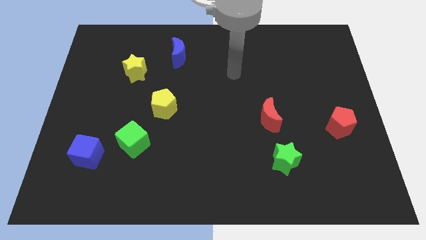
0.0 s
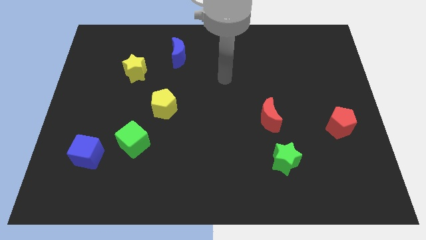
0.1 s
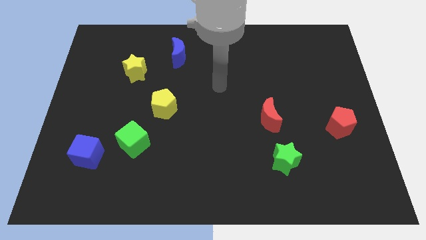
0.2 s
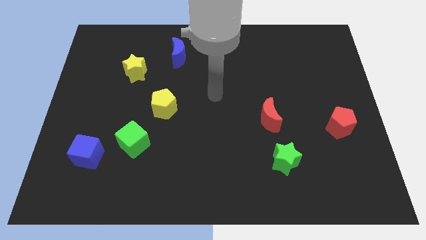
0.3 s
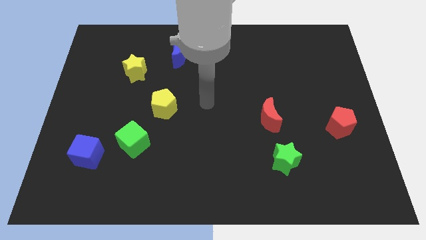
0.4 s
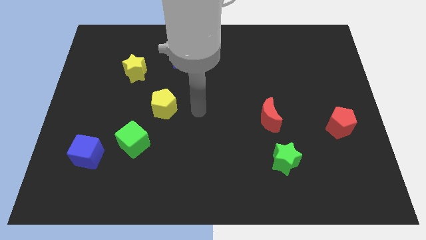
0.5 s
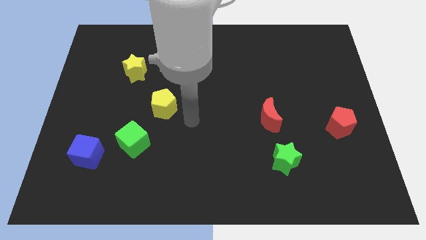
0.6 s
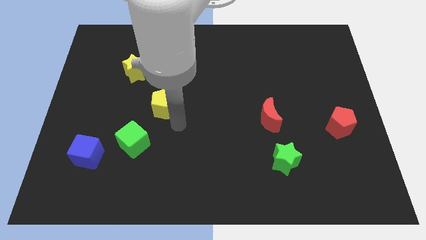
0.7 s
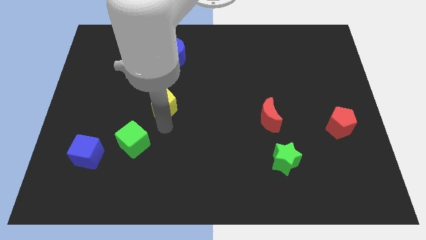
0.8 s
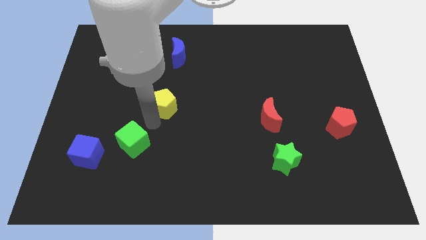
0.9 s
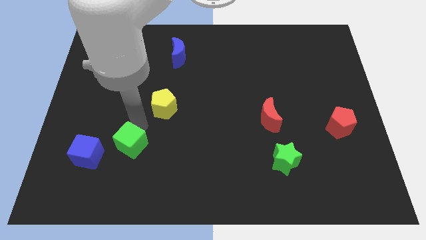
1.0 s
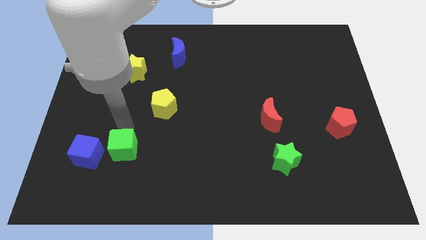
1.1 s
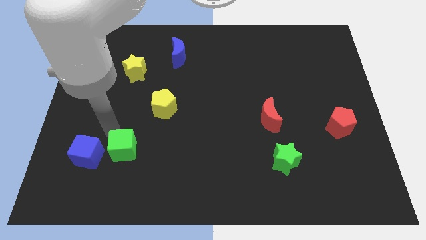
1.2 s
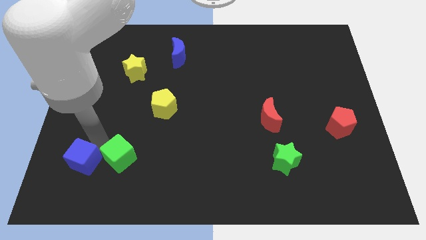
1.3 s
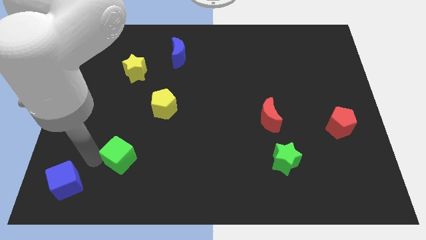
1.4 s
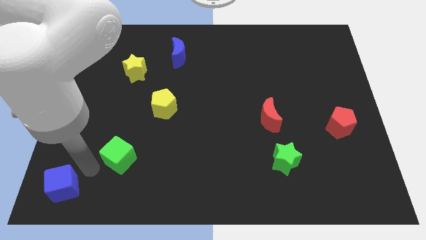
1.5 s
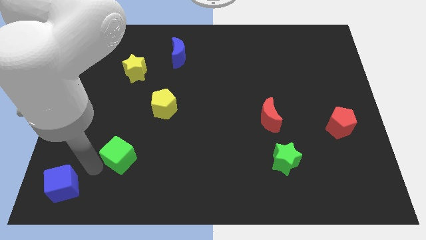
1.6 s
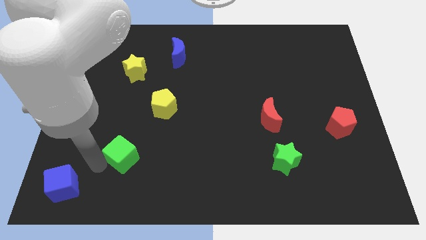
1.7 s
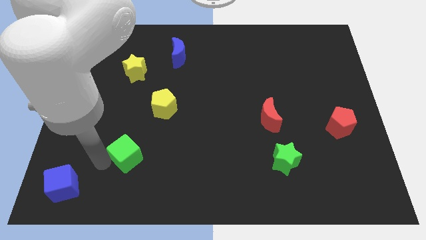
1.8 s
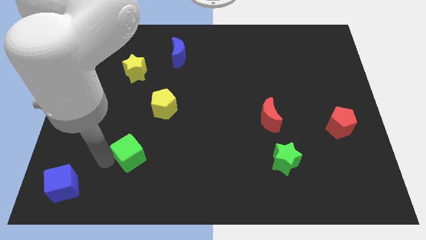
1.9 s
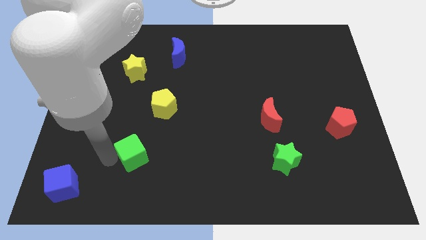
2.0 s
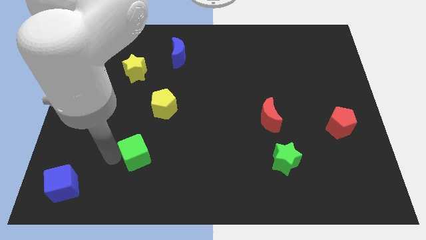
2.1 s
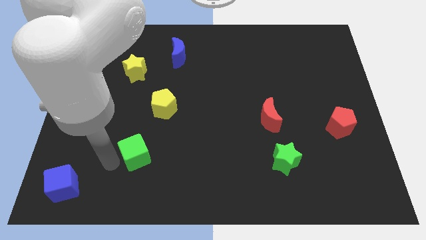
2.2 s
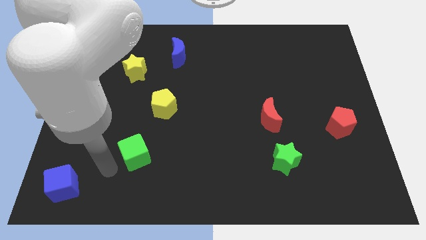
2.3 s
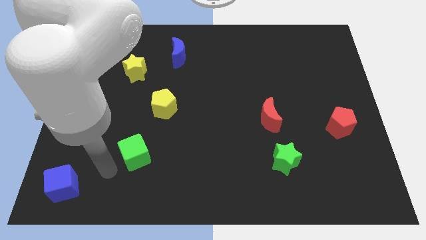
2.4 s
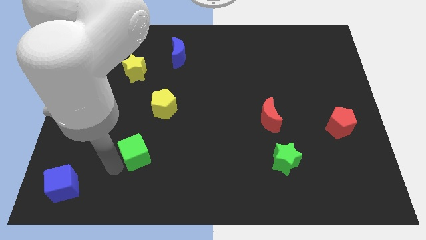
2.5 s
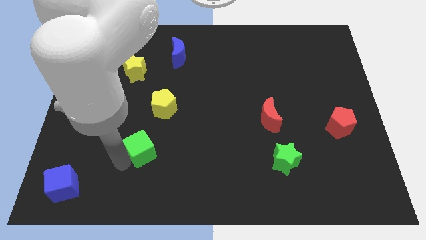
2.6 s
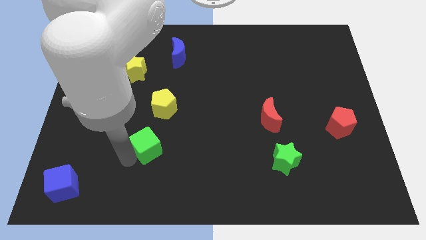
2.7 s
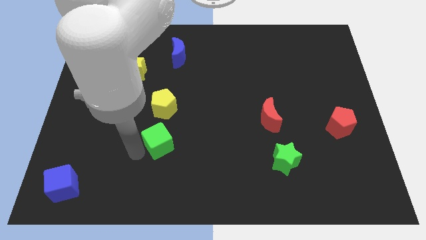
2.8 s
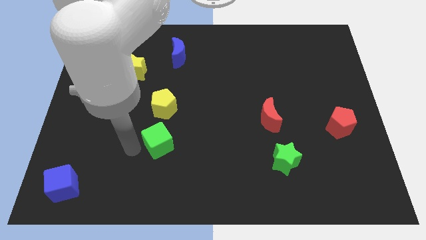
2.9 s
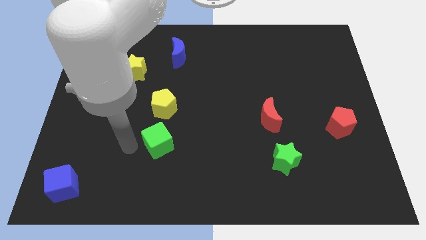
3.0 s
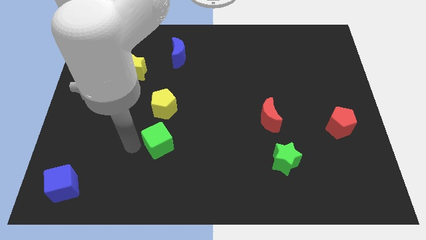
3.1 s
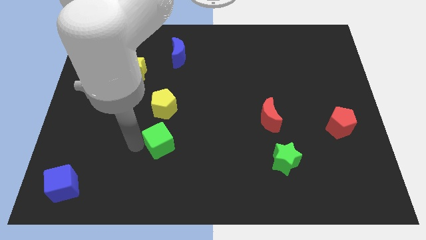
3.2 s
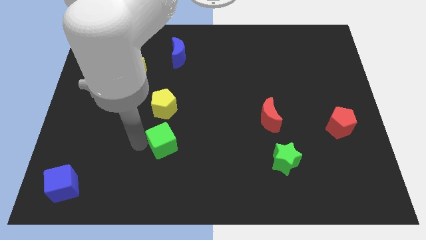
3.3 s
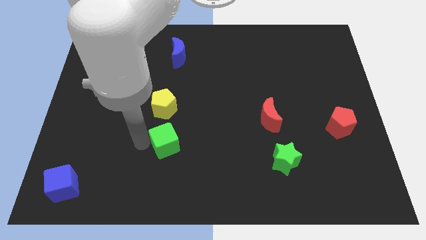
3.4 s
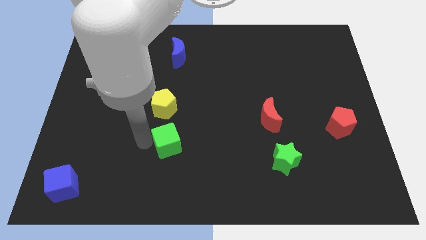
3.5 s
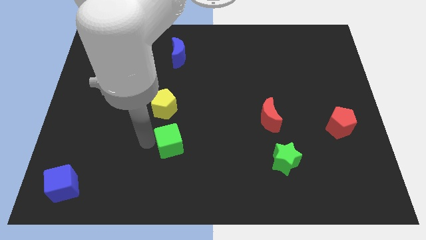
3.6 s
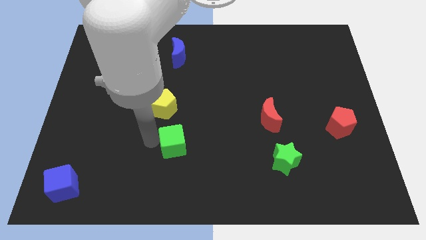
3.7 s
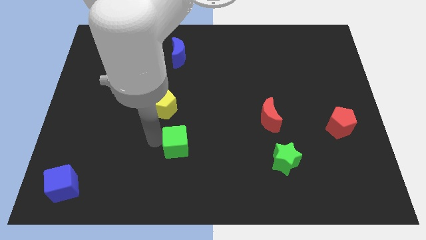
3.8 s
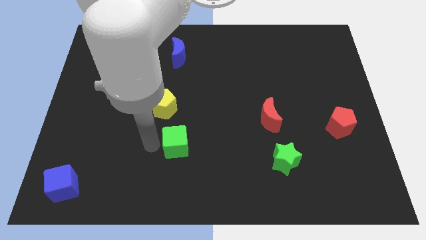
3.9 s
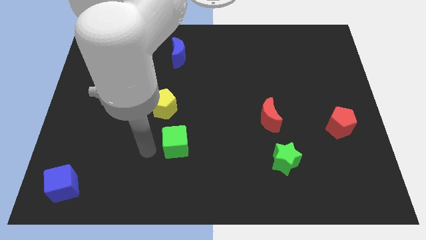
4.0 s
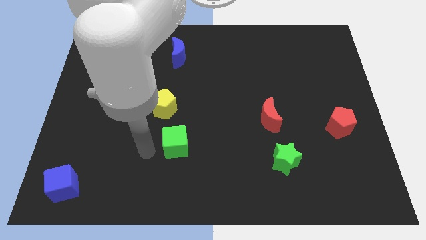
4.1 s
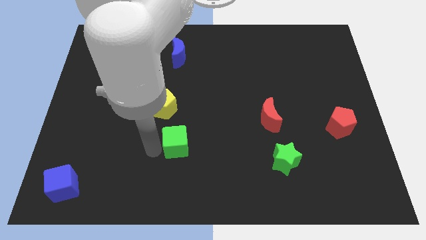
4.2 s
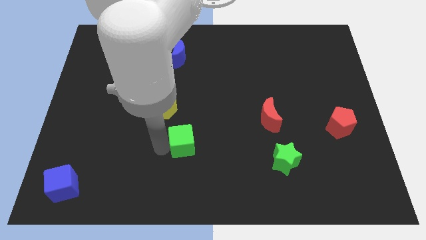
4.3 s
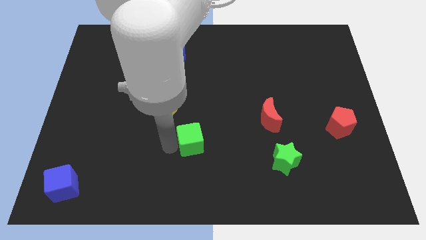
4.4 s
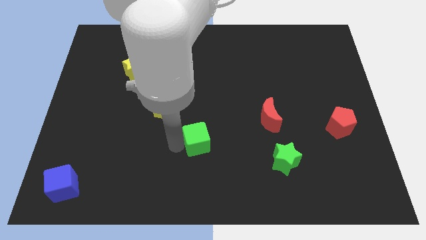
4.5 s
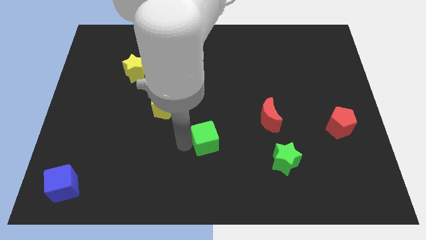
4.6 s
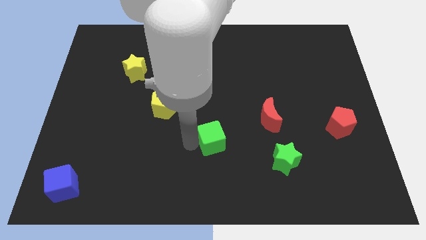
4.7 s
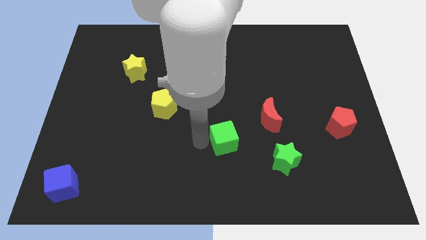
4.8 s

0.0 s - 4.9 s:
push the green cube to the bottom left of the red moon

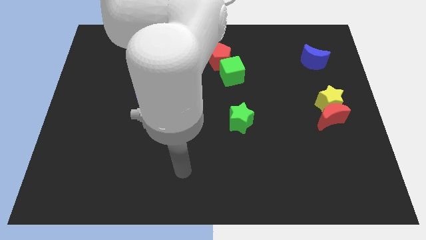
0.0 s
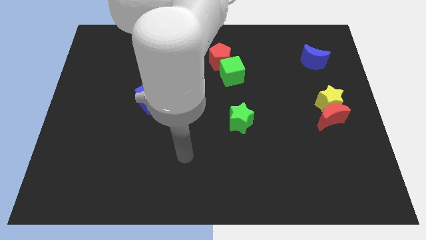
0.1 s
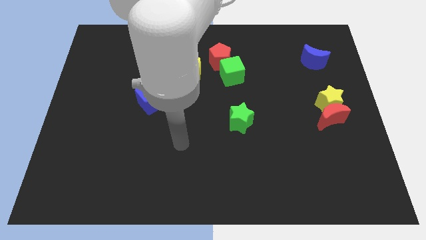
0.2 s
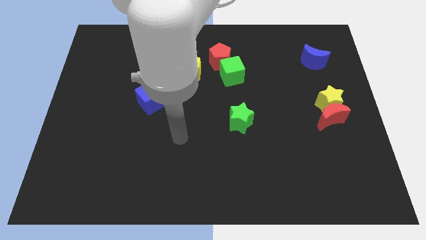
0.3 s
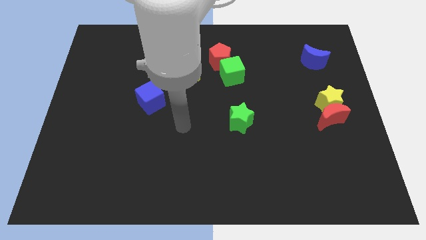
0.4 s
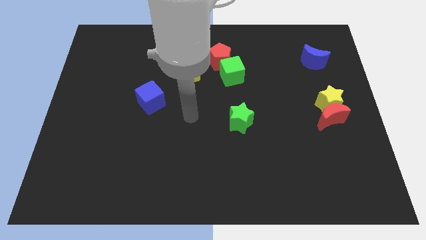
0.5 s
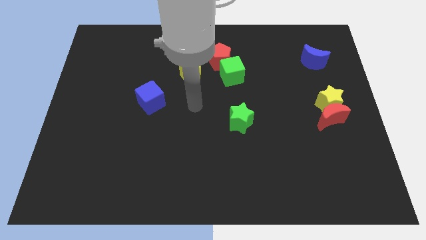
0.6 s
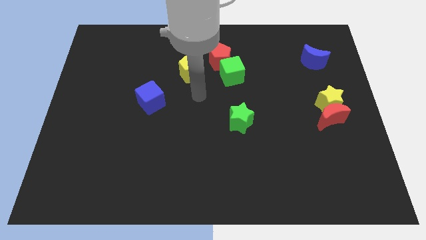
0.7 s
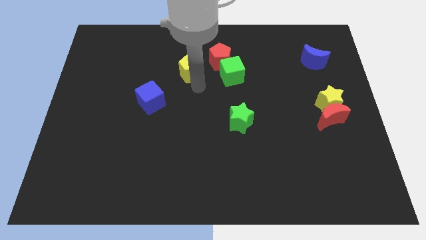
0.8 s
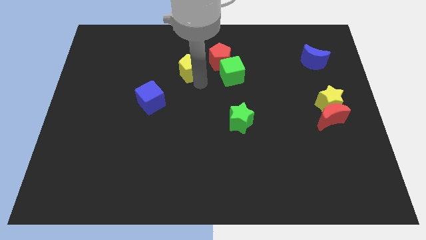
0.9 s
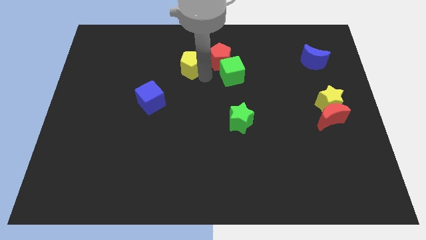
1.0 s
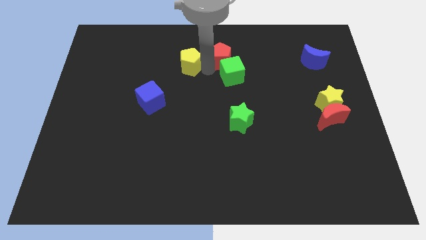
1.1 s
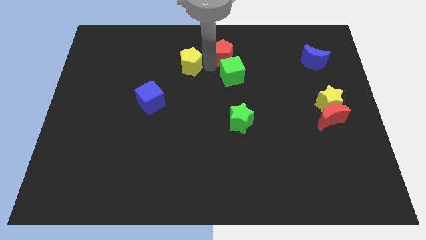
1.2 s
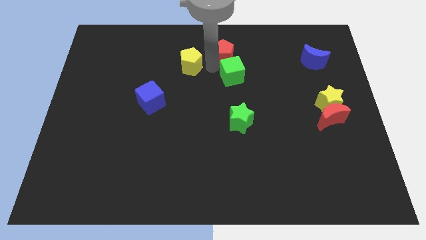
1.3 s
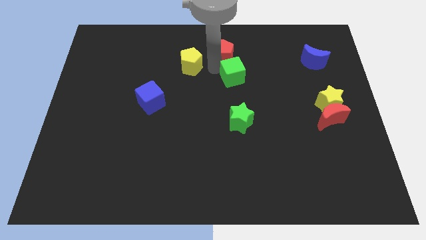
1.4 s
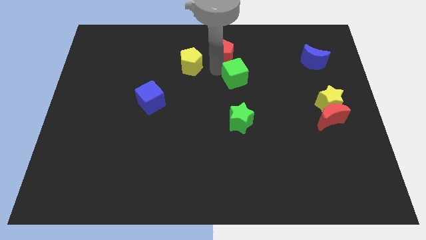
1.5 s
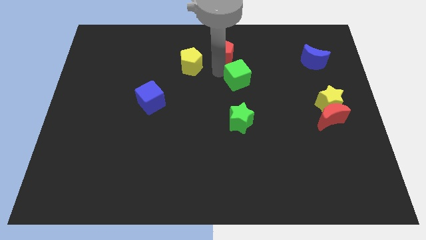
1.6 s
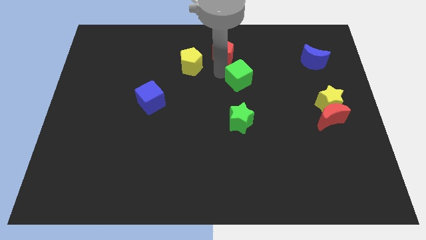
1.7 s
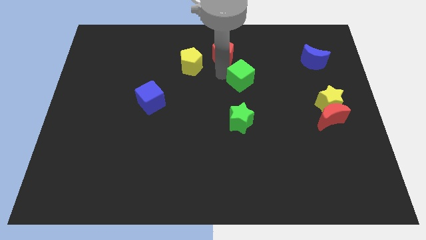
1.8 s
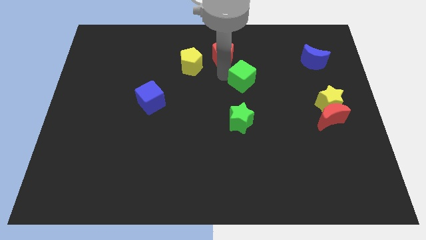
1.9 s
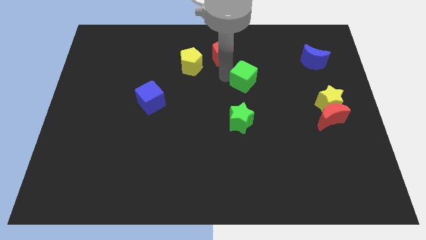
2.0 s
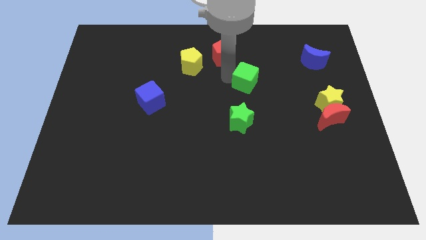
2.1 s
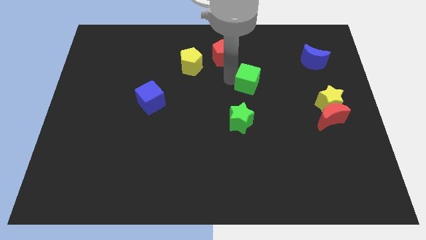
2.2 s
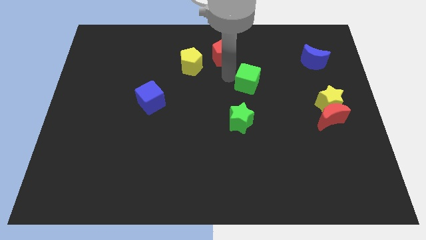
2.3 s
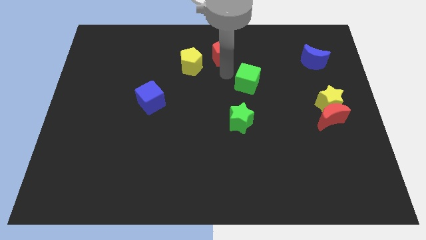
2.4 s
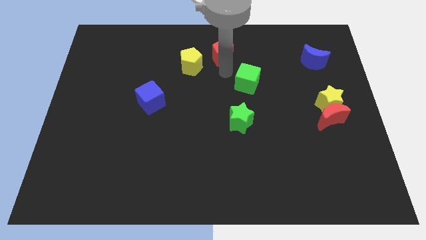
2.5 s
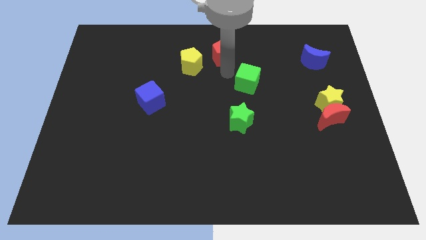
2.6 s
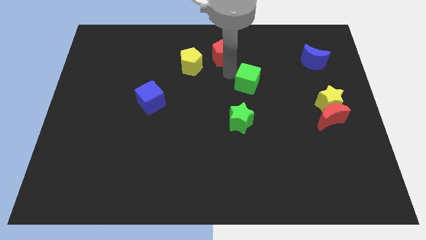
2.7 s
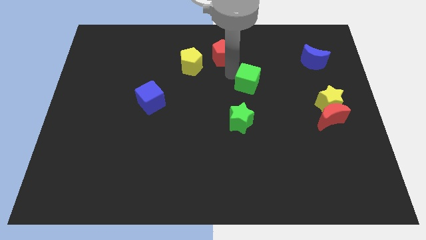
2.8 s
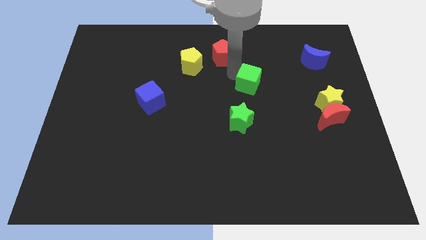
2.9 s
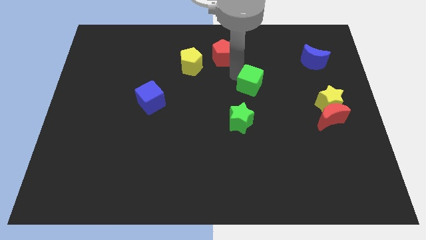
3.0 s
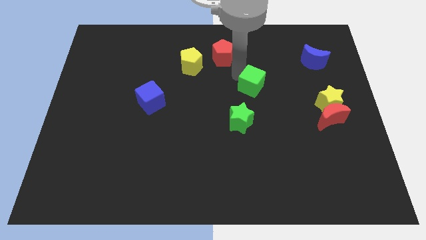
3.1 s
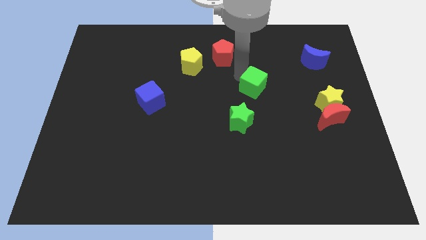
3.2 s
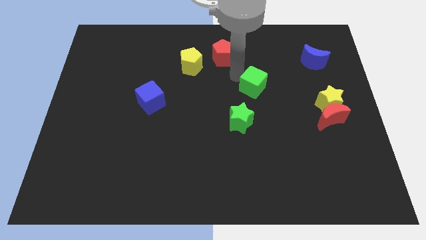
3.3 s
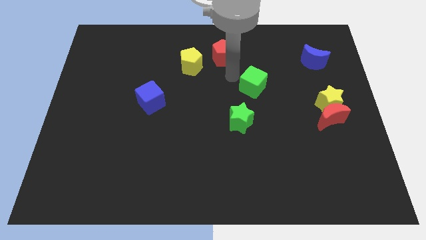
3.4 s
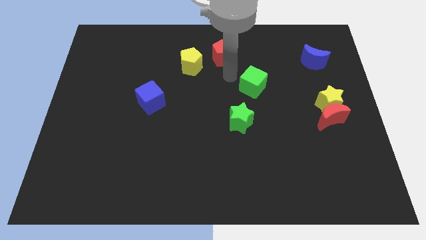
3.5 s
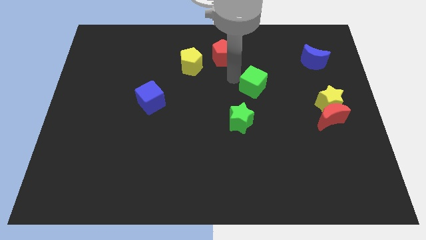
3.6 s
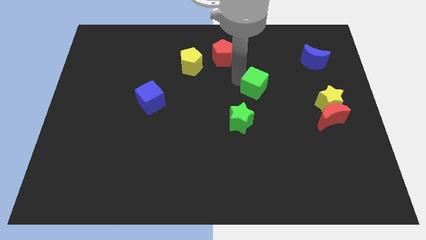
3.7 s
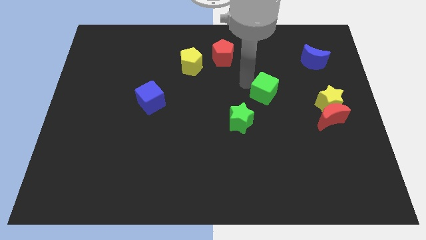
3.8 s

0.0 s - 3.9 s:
slide the green cube left of the yellow star
